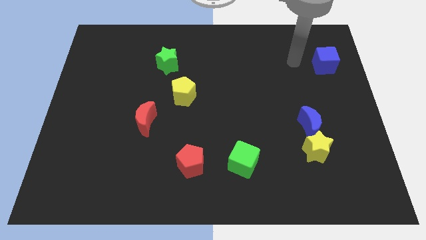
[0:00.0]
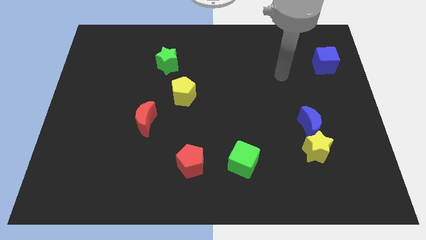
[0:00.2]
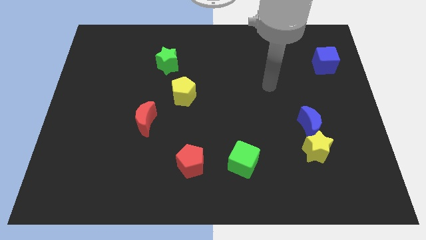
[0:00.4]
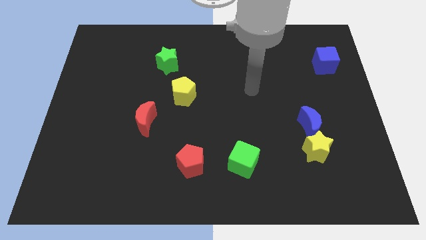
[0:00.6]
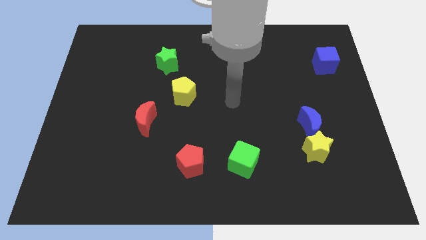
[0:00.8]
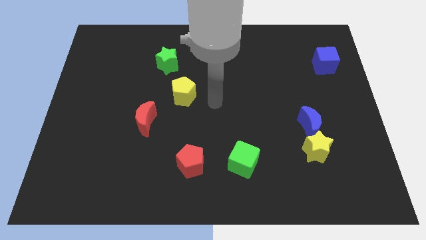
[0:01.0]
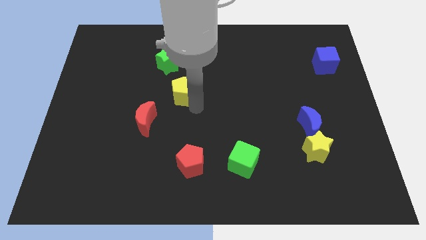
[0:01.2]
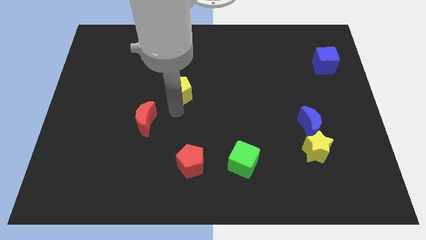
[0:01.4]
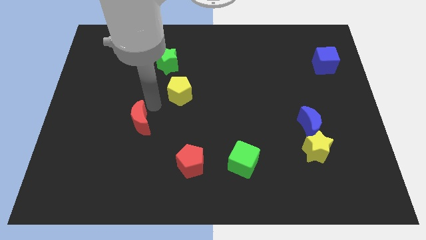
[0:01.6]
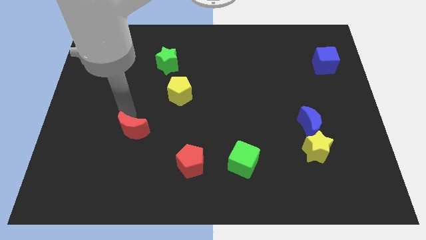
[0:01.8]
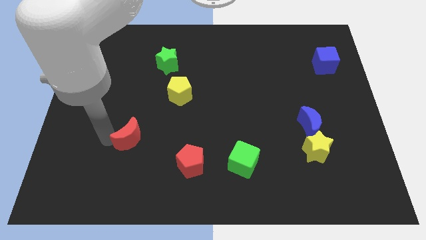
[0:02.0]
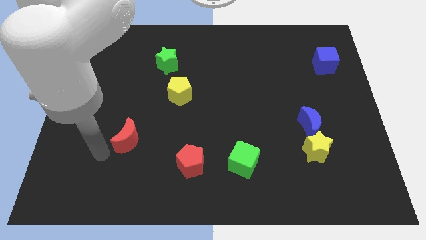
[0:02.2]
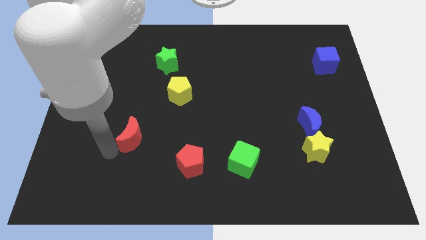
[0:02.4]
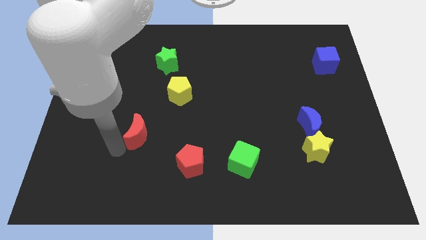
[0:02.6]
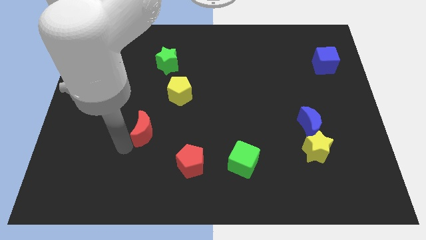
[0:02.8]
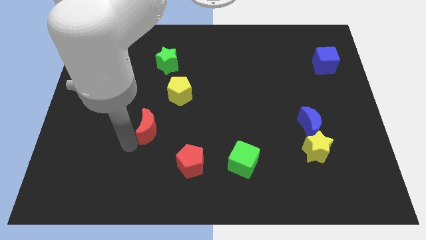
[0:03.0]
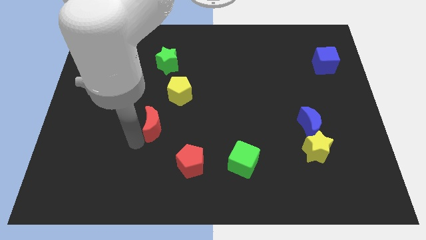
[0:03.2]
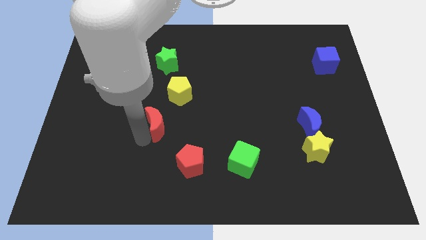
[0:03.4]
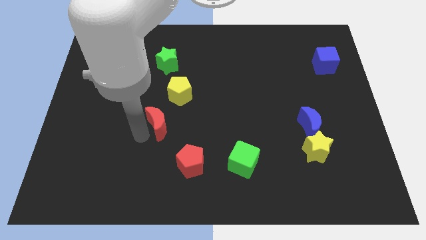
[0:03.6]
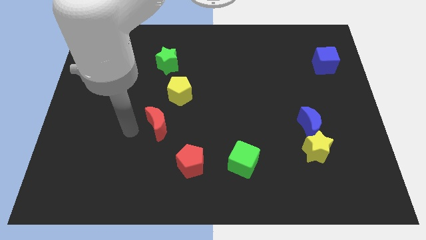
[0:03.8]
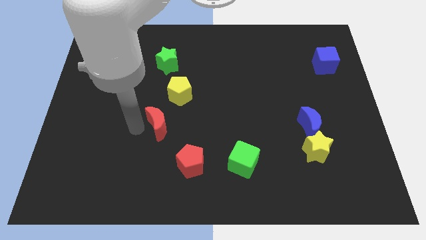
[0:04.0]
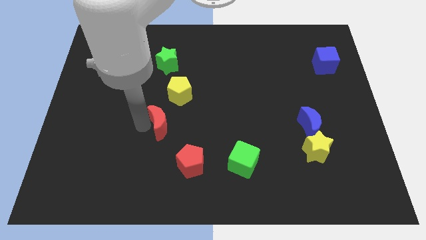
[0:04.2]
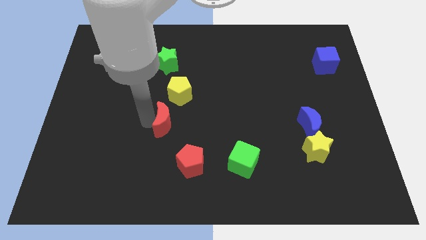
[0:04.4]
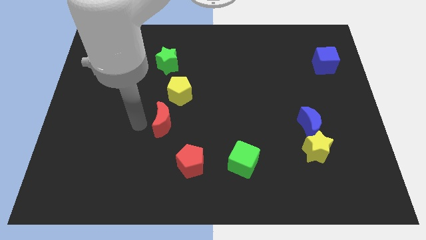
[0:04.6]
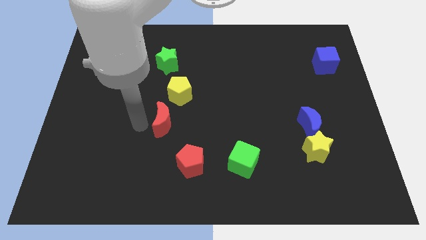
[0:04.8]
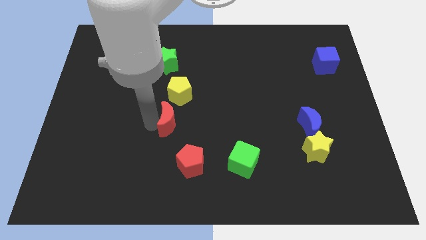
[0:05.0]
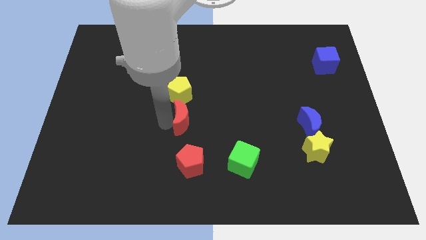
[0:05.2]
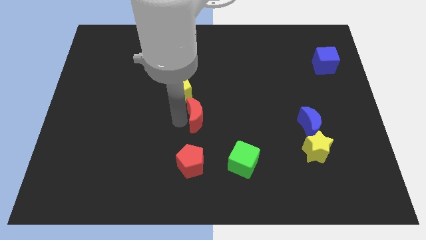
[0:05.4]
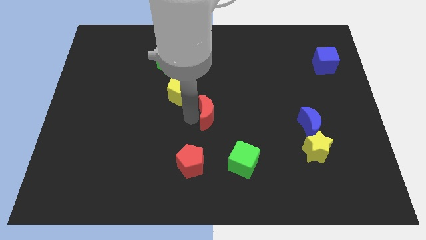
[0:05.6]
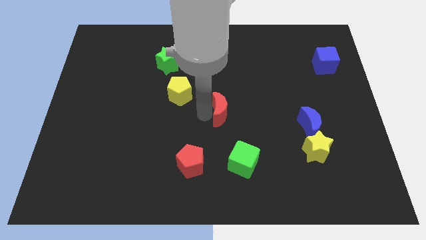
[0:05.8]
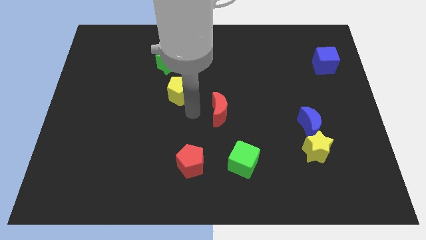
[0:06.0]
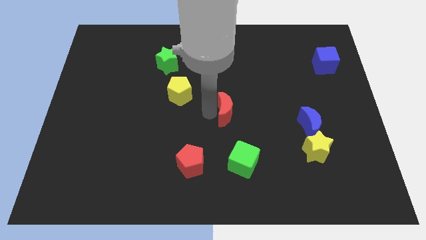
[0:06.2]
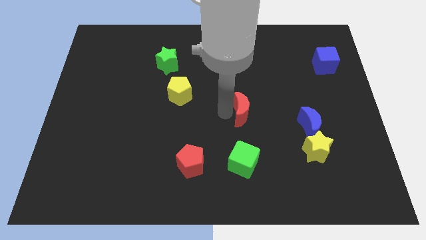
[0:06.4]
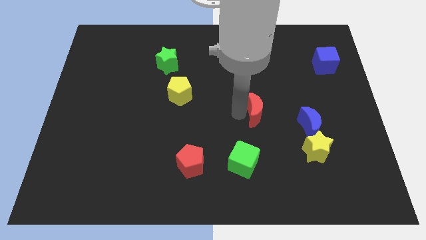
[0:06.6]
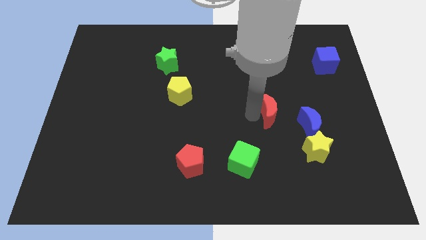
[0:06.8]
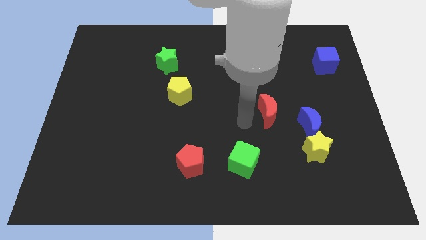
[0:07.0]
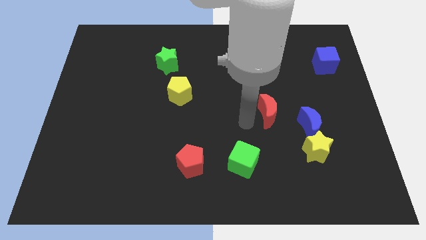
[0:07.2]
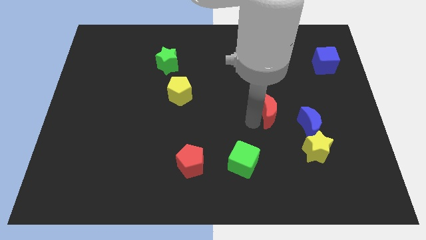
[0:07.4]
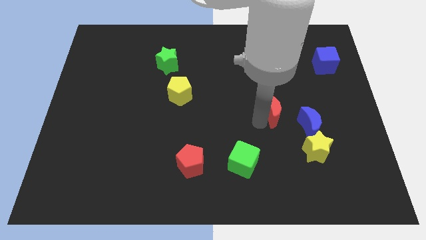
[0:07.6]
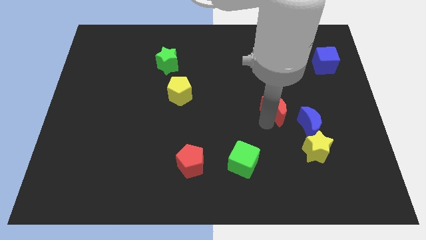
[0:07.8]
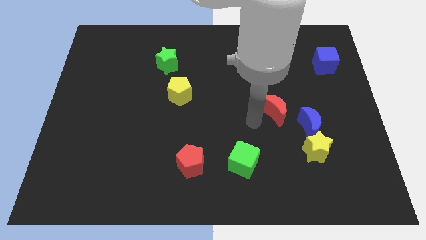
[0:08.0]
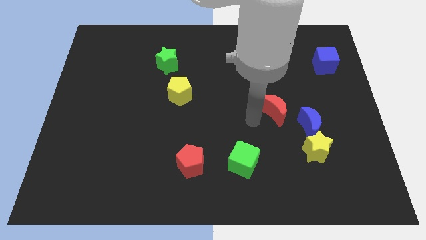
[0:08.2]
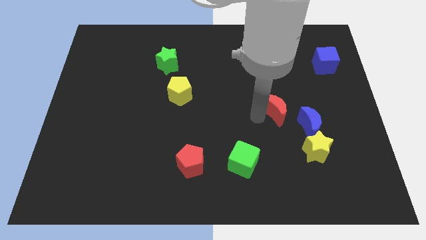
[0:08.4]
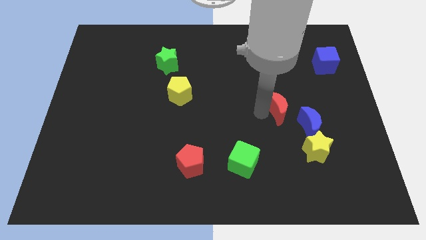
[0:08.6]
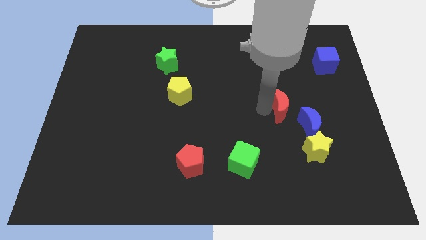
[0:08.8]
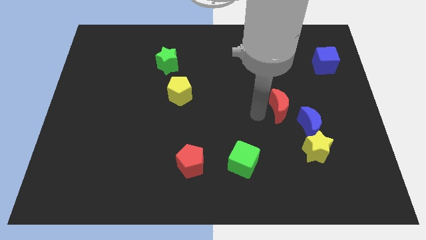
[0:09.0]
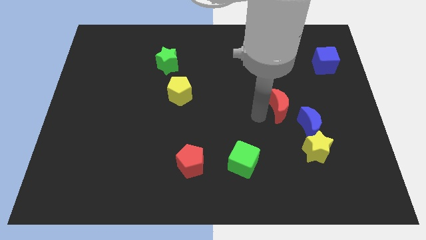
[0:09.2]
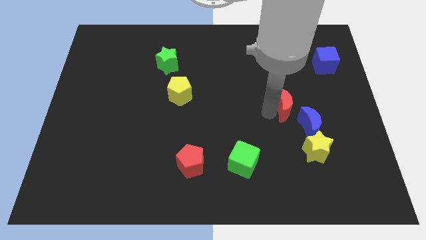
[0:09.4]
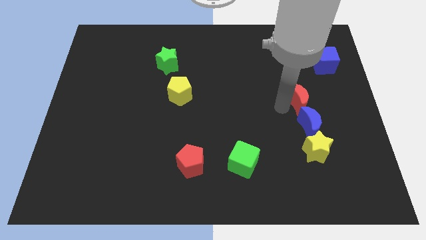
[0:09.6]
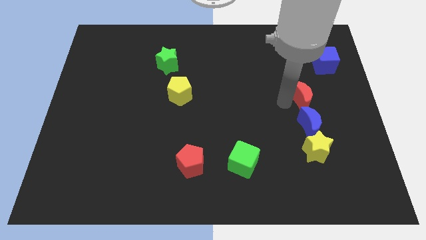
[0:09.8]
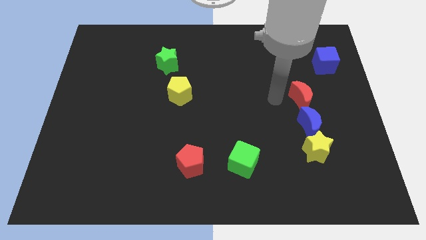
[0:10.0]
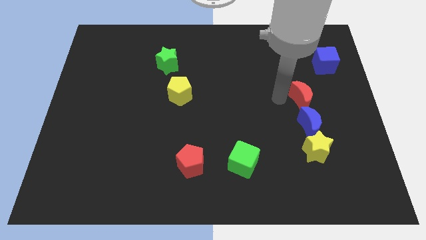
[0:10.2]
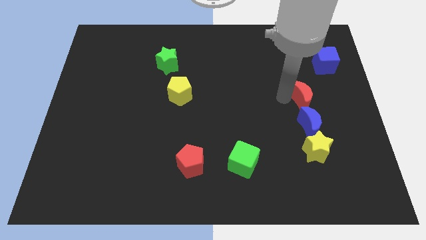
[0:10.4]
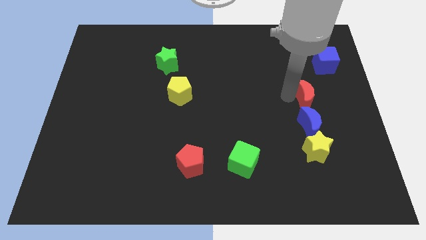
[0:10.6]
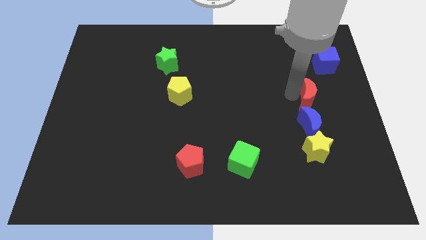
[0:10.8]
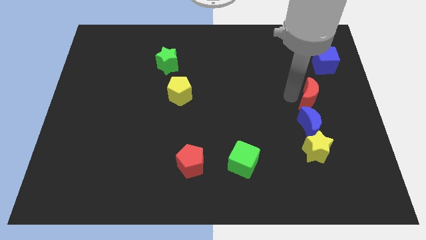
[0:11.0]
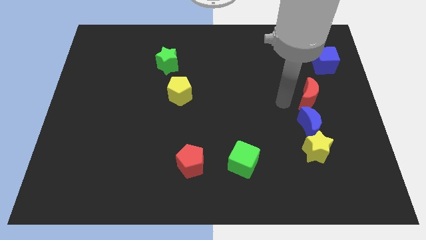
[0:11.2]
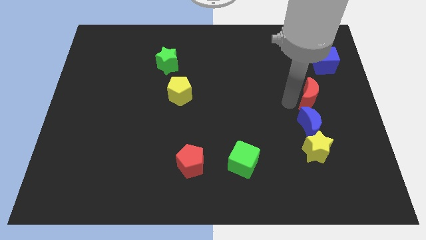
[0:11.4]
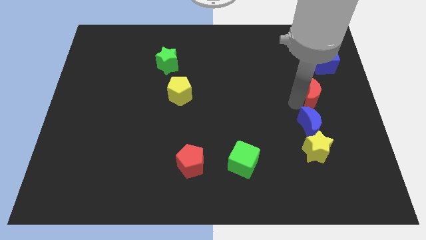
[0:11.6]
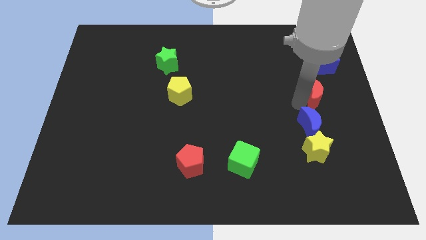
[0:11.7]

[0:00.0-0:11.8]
slide the red moon to the bottom side of the blue cube

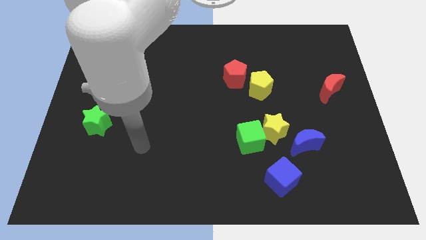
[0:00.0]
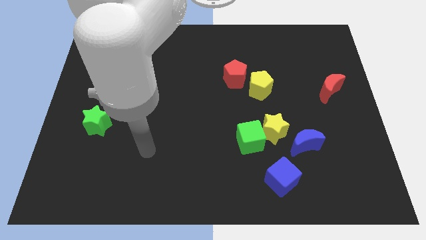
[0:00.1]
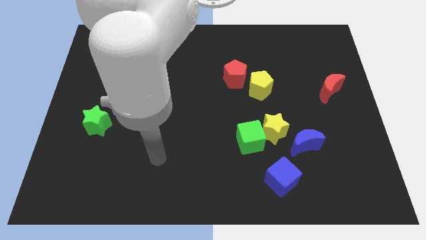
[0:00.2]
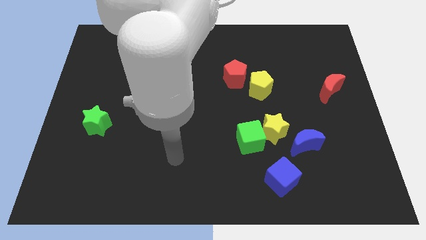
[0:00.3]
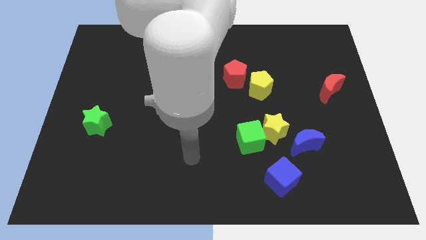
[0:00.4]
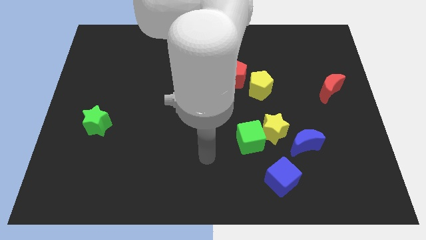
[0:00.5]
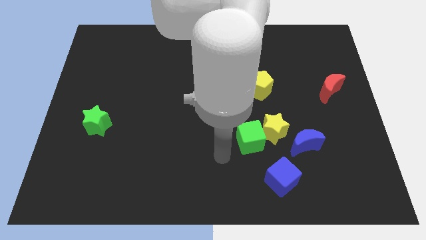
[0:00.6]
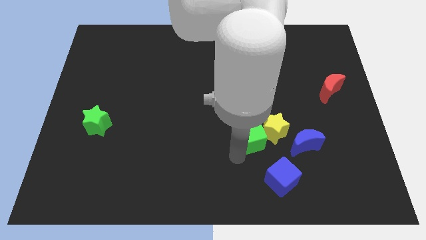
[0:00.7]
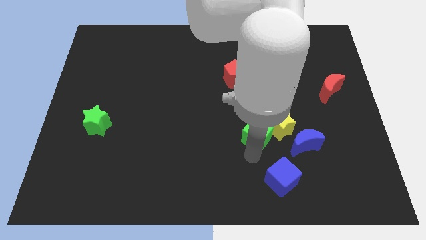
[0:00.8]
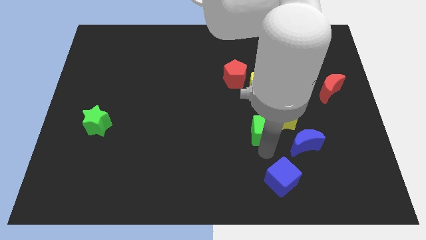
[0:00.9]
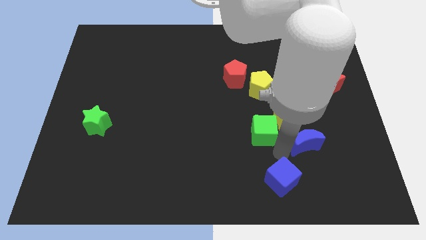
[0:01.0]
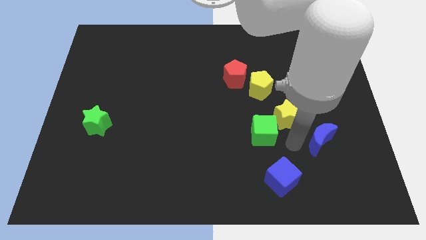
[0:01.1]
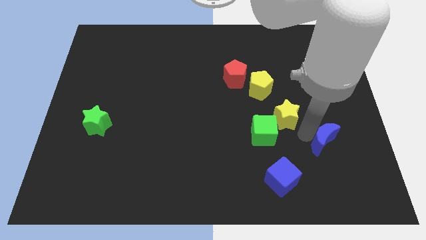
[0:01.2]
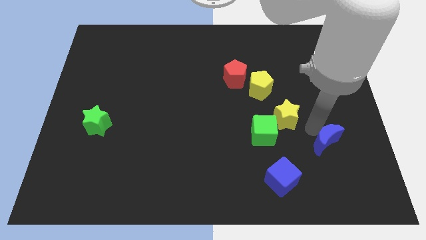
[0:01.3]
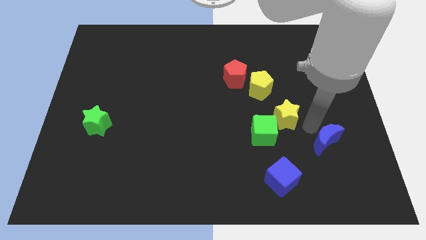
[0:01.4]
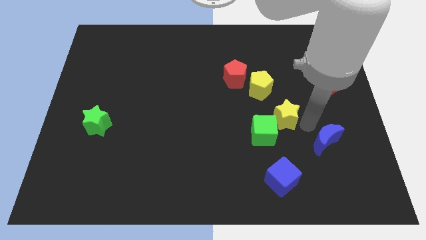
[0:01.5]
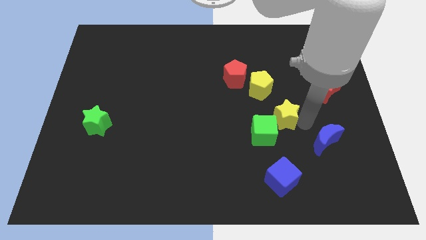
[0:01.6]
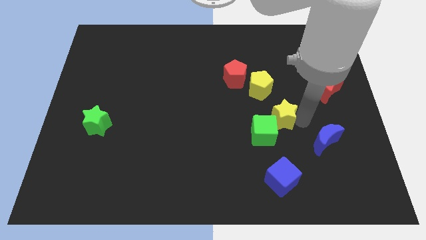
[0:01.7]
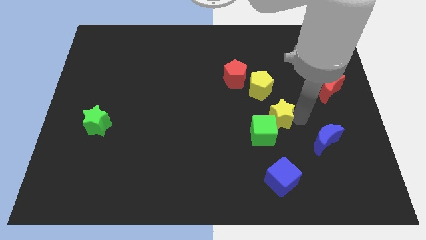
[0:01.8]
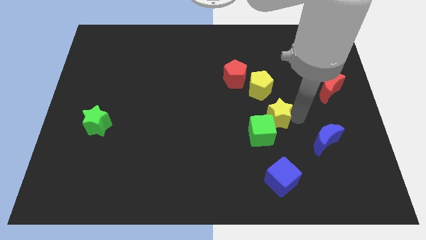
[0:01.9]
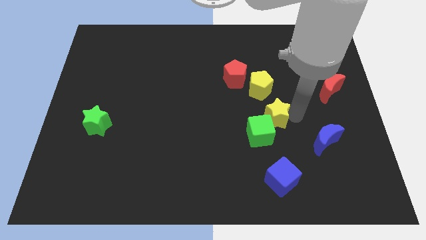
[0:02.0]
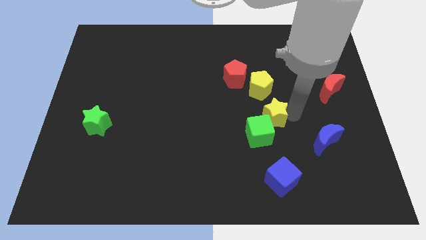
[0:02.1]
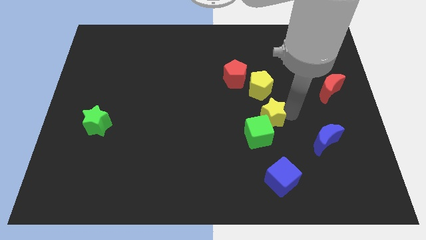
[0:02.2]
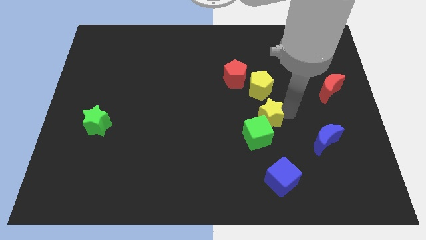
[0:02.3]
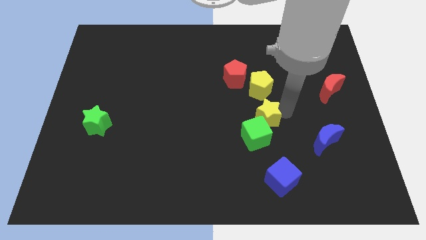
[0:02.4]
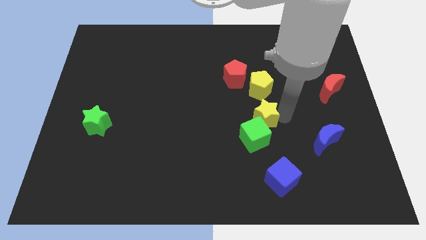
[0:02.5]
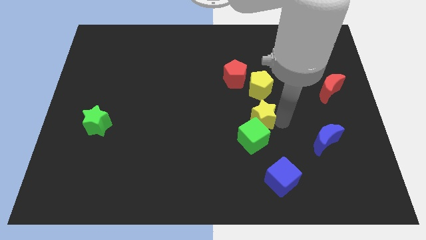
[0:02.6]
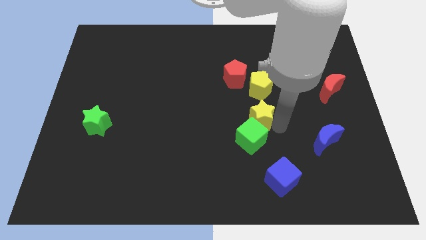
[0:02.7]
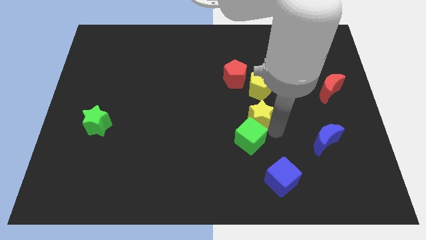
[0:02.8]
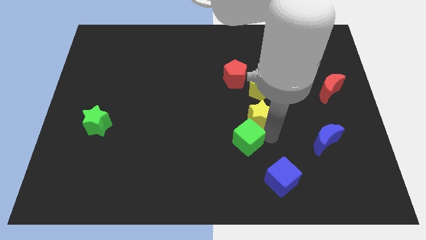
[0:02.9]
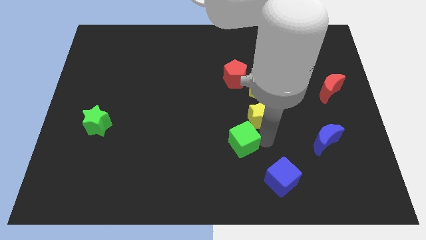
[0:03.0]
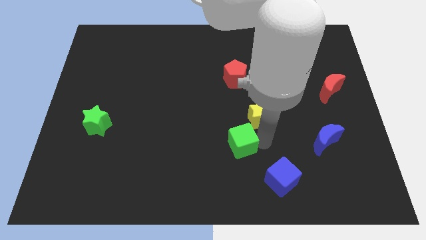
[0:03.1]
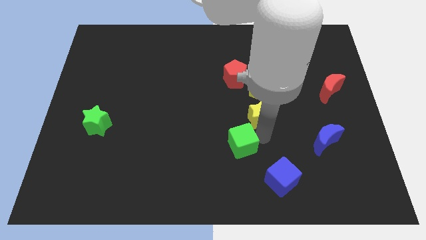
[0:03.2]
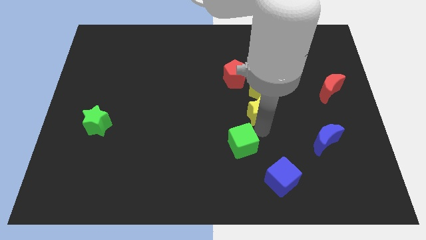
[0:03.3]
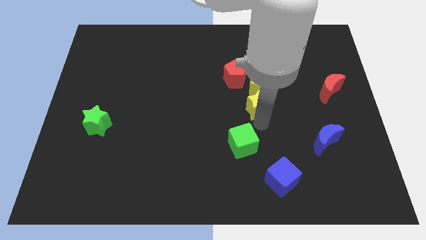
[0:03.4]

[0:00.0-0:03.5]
put the yellow star to the bottom right side of the red pentagon
